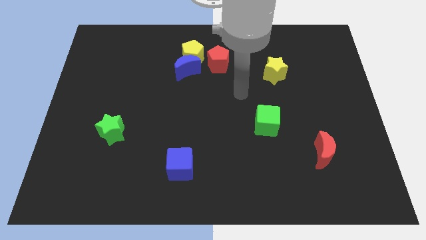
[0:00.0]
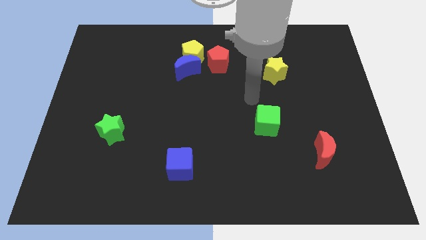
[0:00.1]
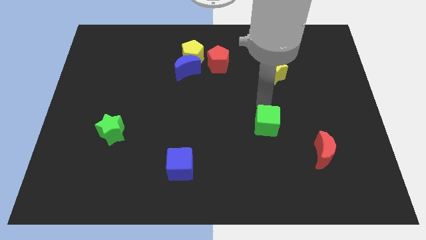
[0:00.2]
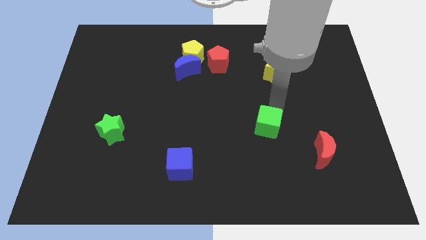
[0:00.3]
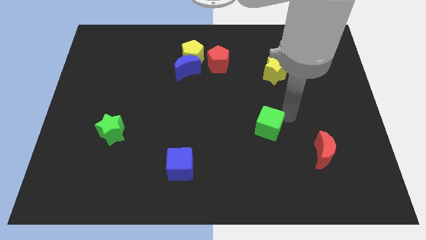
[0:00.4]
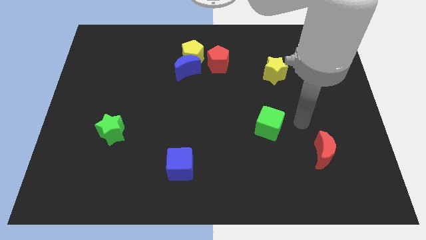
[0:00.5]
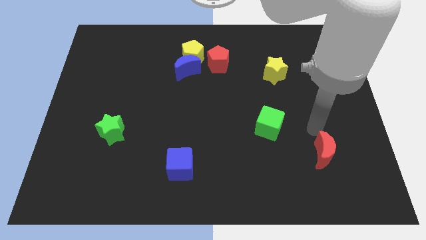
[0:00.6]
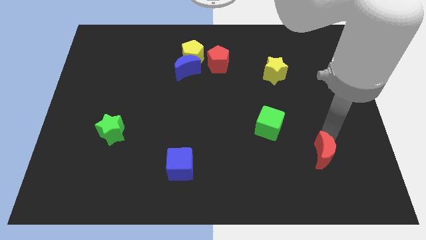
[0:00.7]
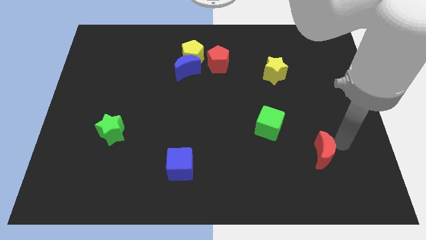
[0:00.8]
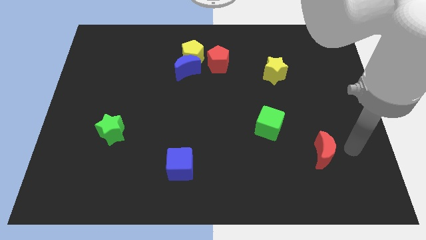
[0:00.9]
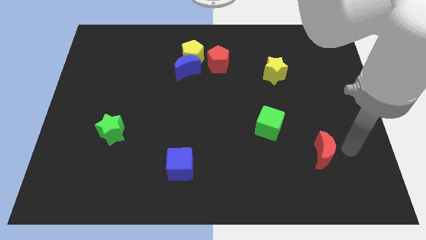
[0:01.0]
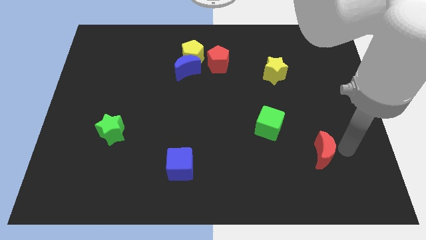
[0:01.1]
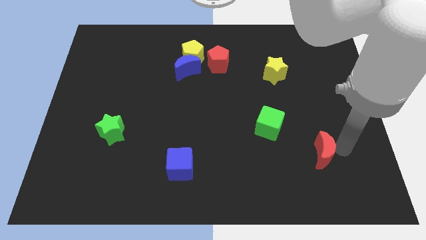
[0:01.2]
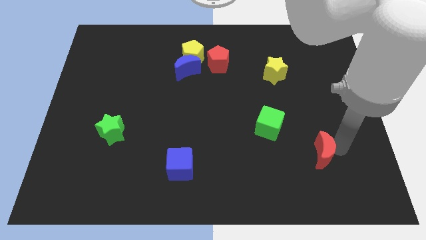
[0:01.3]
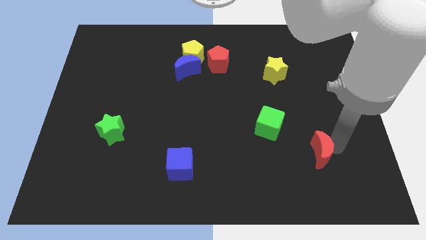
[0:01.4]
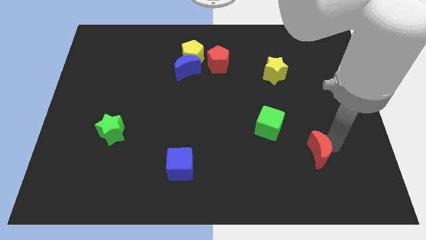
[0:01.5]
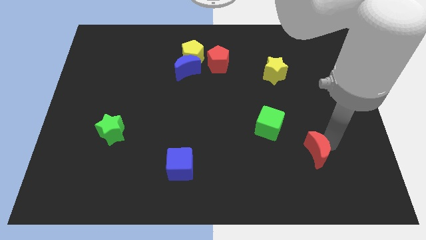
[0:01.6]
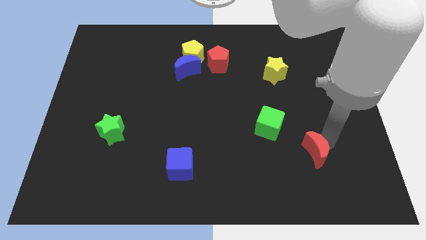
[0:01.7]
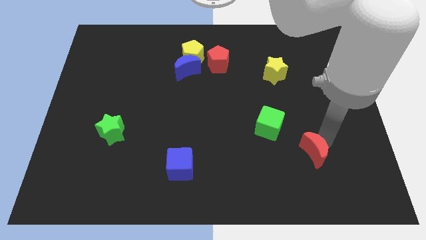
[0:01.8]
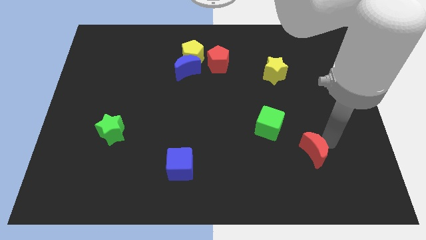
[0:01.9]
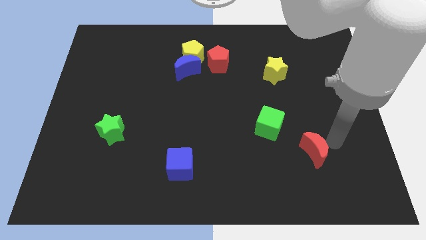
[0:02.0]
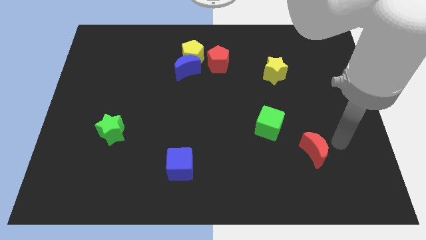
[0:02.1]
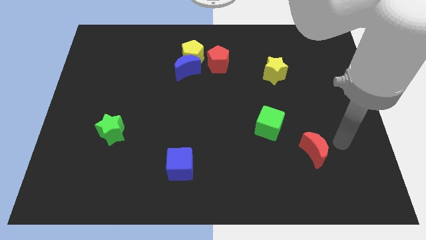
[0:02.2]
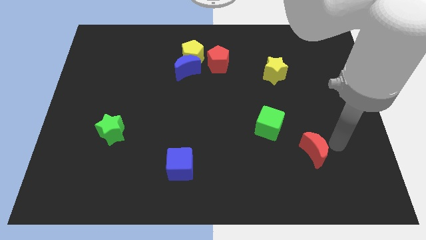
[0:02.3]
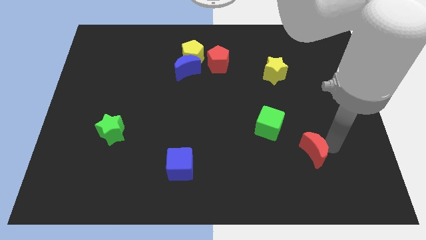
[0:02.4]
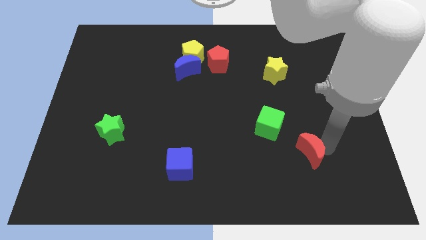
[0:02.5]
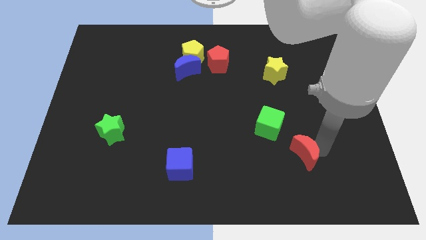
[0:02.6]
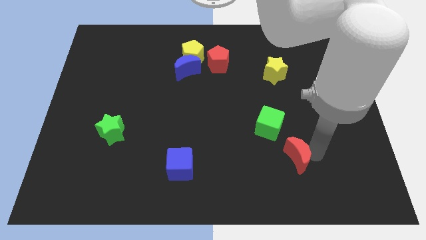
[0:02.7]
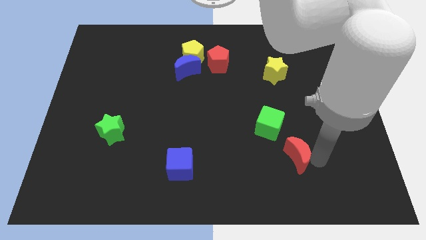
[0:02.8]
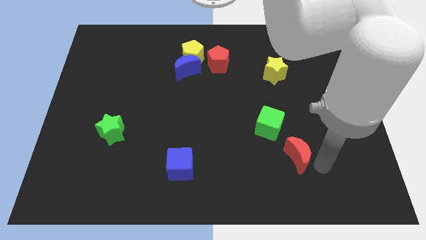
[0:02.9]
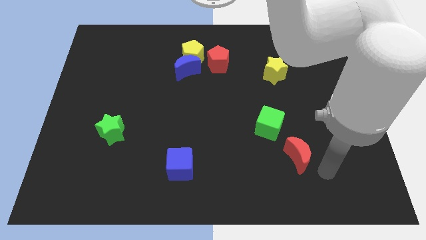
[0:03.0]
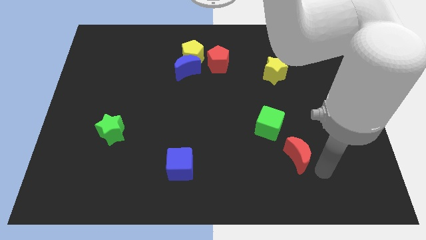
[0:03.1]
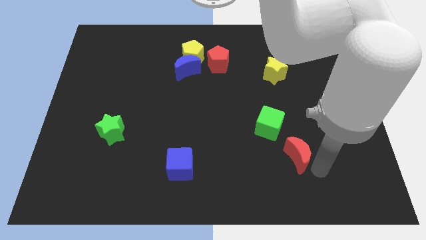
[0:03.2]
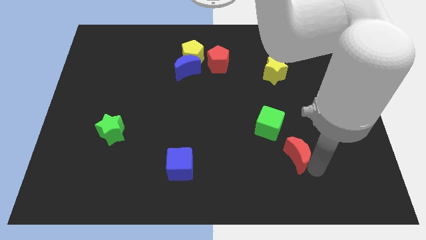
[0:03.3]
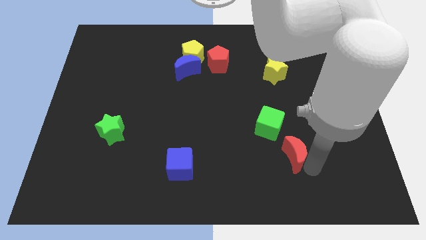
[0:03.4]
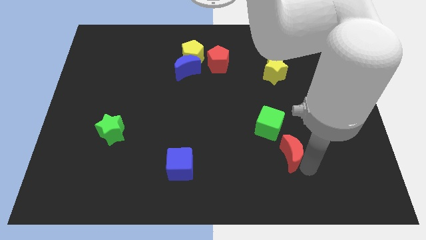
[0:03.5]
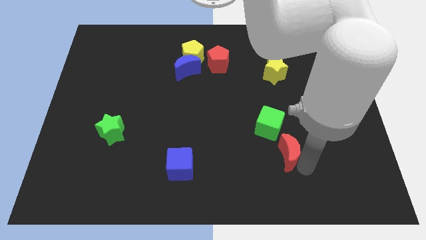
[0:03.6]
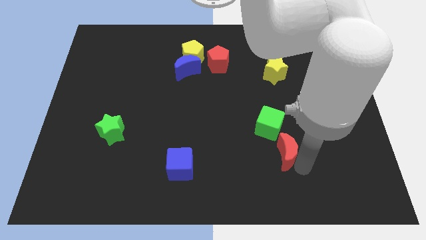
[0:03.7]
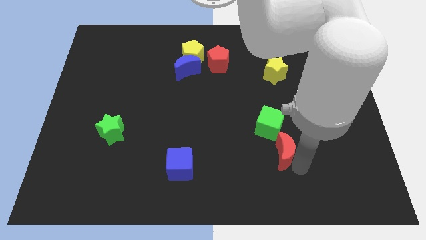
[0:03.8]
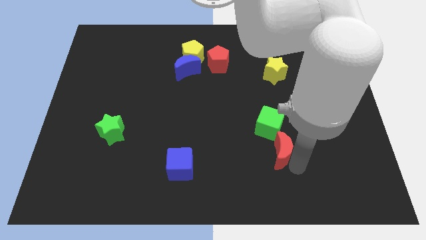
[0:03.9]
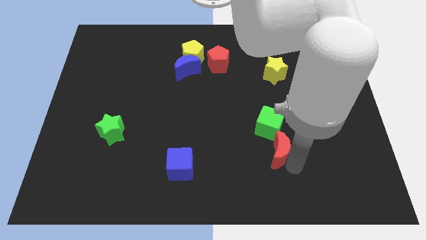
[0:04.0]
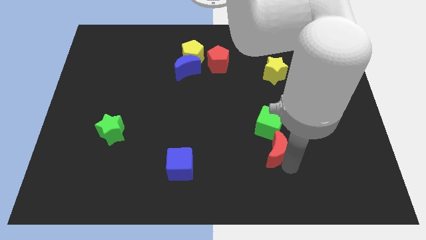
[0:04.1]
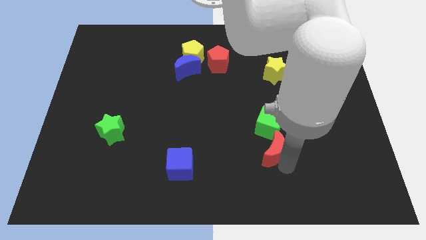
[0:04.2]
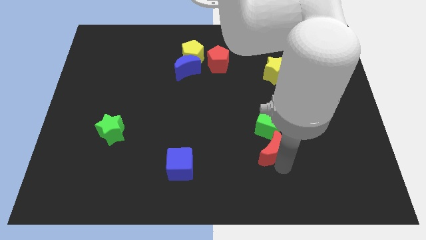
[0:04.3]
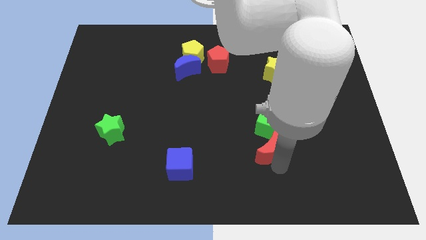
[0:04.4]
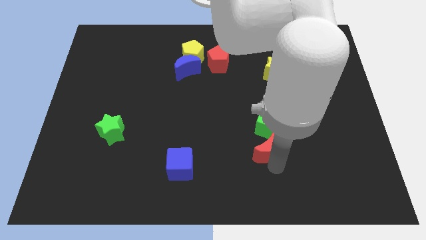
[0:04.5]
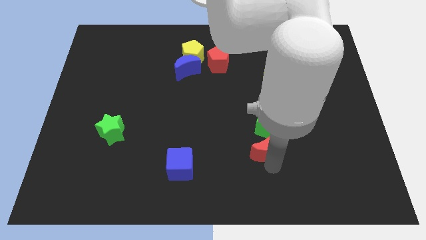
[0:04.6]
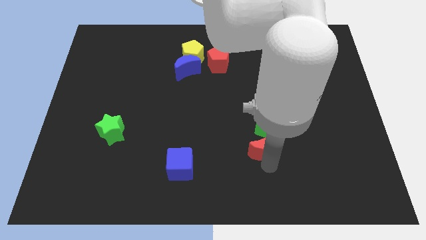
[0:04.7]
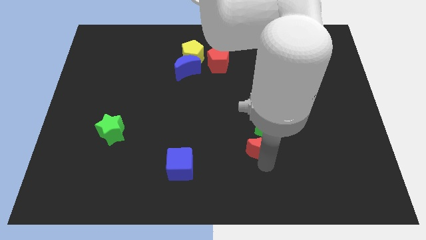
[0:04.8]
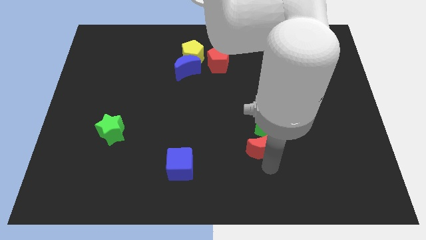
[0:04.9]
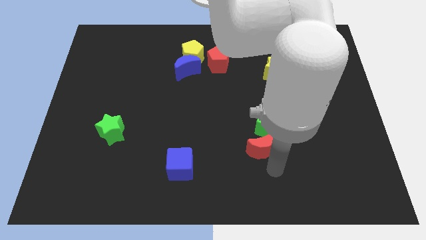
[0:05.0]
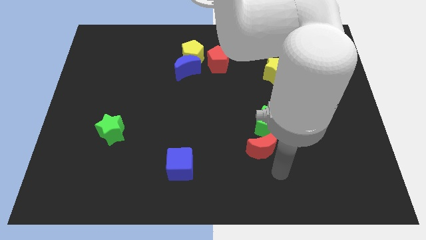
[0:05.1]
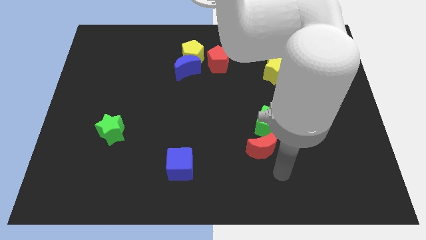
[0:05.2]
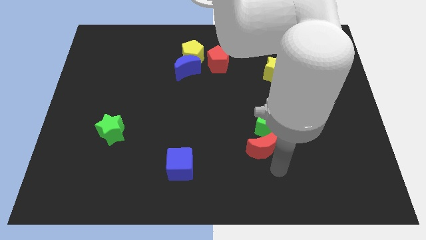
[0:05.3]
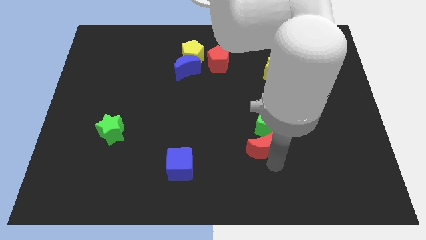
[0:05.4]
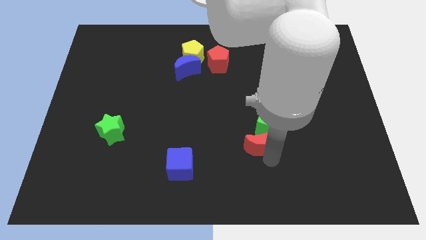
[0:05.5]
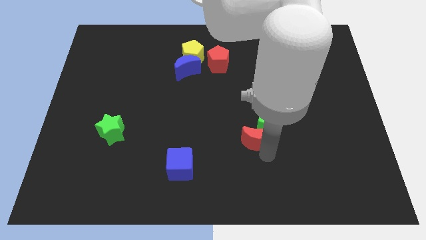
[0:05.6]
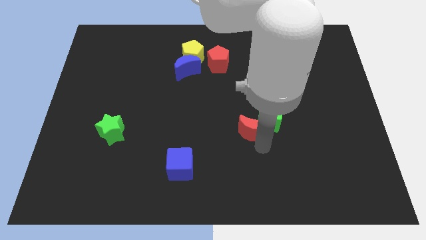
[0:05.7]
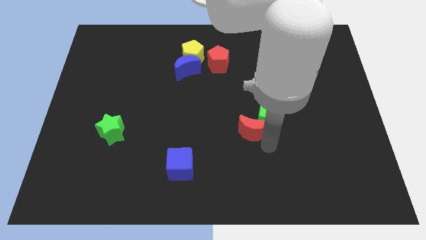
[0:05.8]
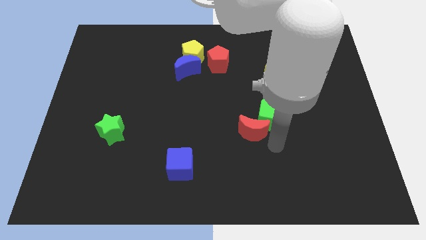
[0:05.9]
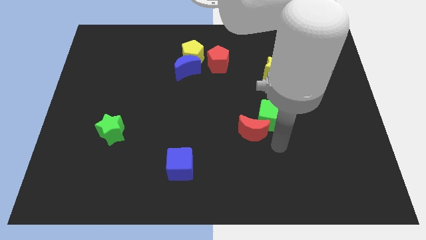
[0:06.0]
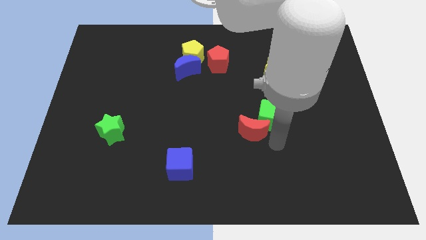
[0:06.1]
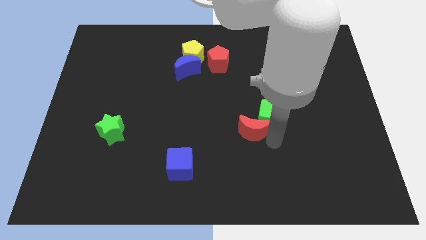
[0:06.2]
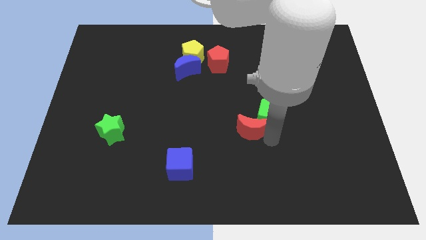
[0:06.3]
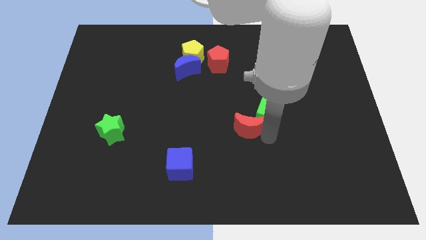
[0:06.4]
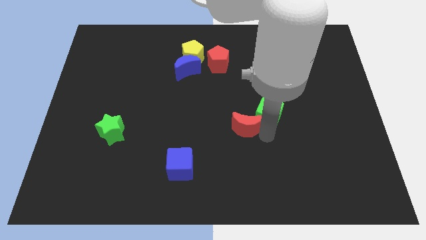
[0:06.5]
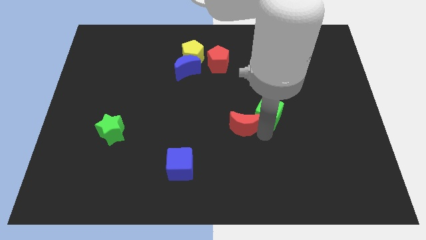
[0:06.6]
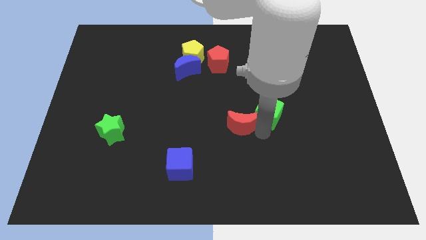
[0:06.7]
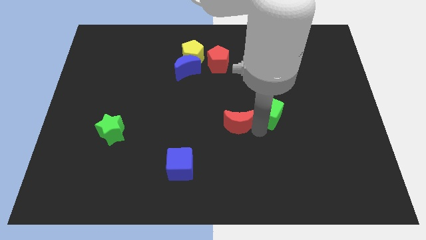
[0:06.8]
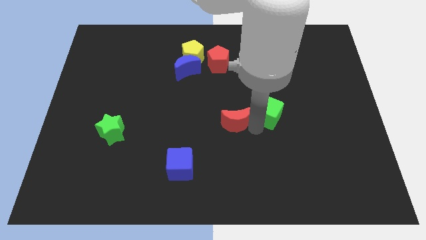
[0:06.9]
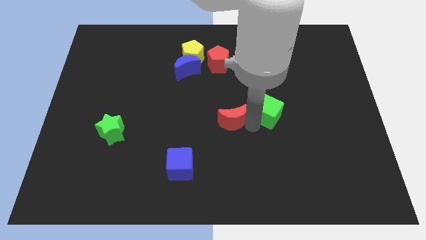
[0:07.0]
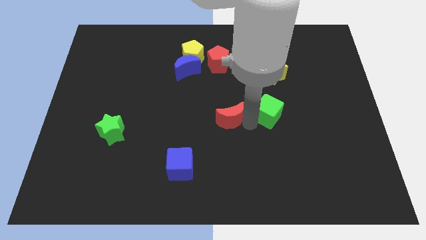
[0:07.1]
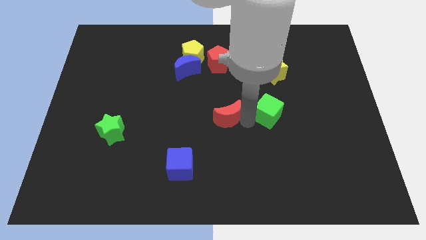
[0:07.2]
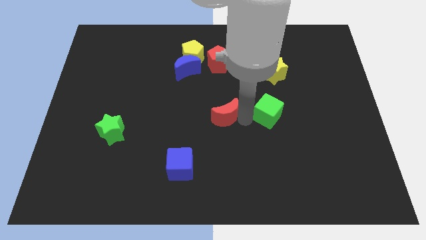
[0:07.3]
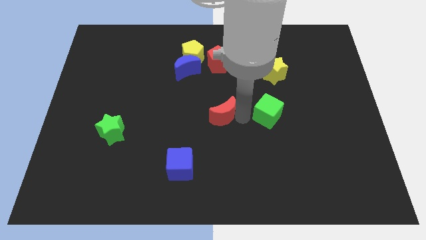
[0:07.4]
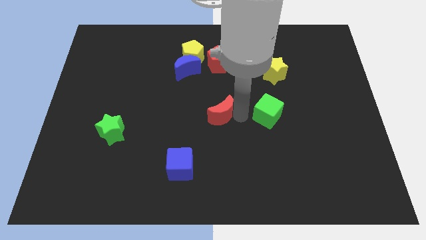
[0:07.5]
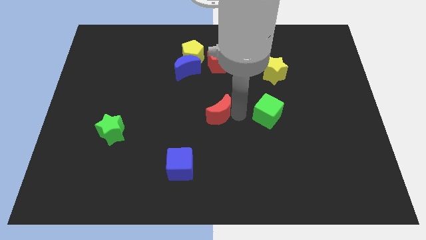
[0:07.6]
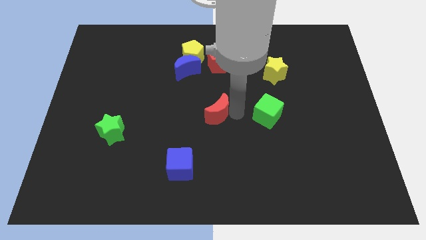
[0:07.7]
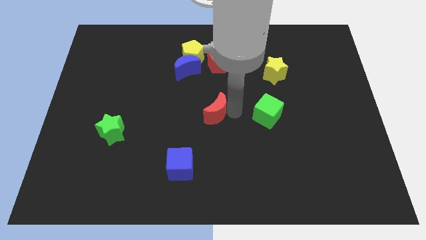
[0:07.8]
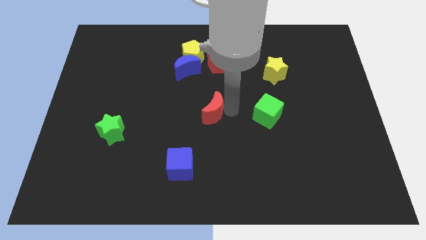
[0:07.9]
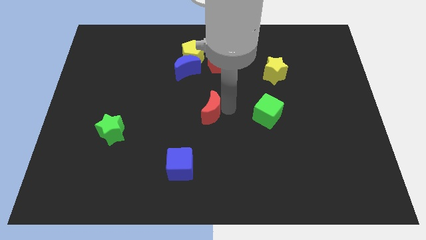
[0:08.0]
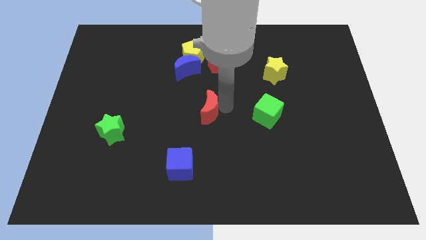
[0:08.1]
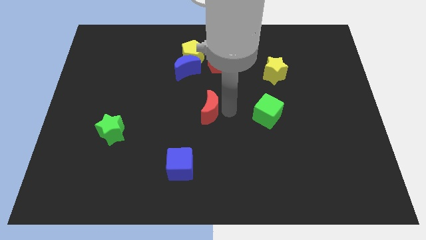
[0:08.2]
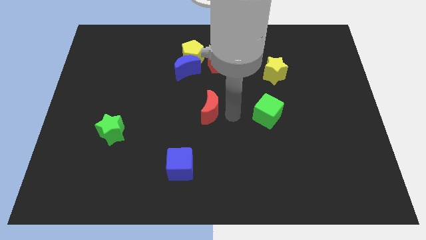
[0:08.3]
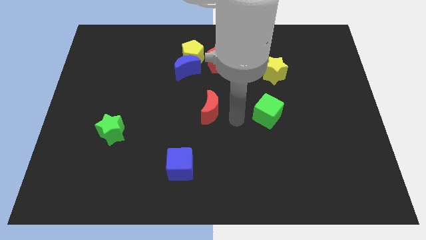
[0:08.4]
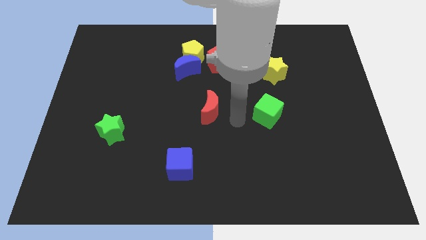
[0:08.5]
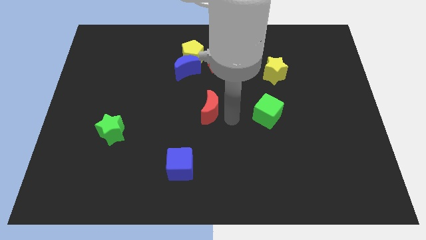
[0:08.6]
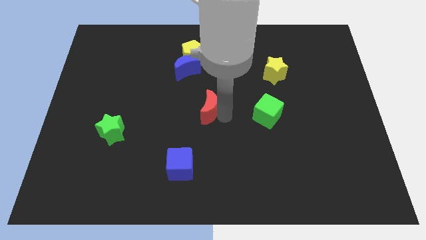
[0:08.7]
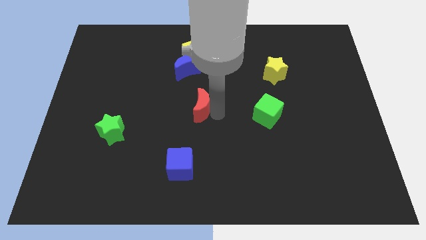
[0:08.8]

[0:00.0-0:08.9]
slide the red moon below the blue moon
